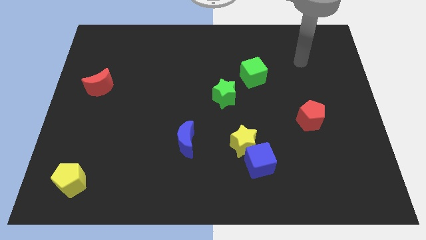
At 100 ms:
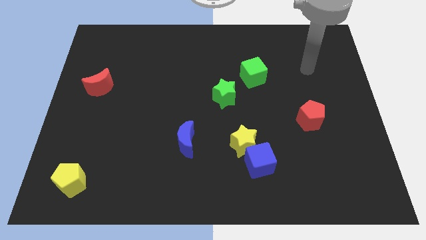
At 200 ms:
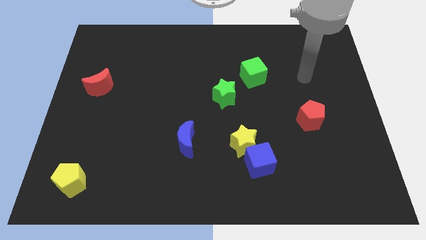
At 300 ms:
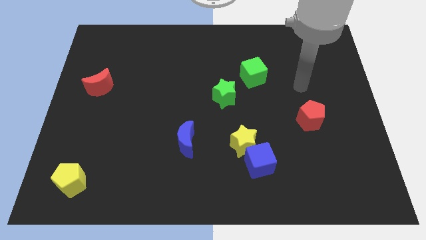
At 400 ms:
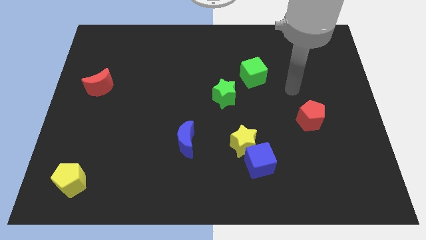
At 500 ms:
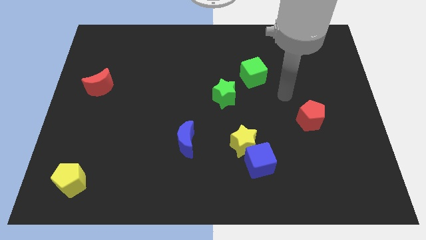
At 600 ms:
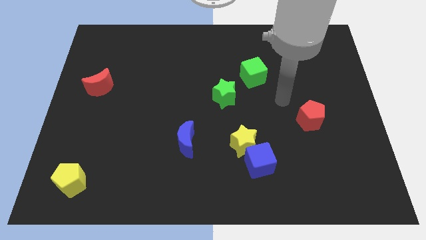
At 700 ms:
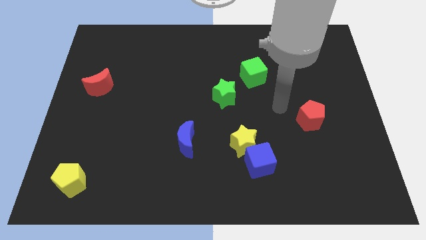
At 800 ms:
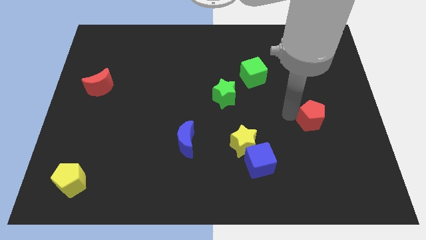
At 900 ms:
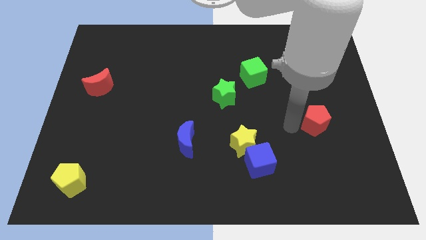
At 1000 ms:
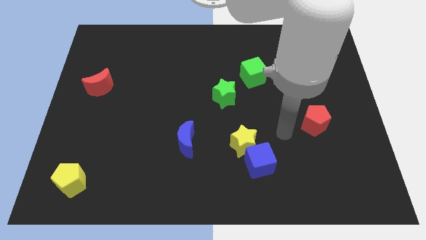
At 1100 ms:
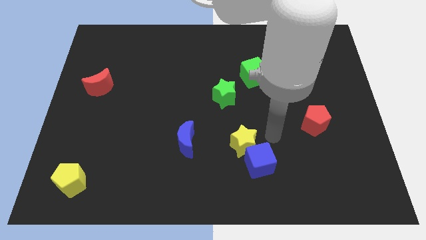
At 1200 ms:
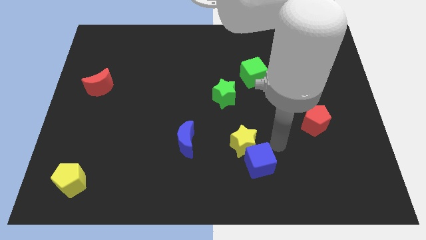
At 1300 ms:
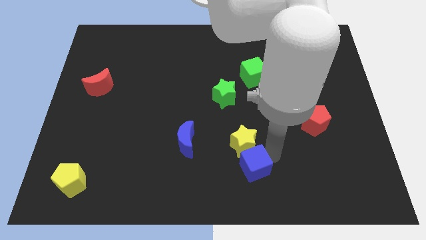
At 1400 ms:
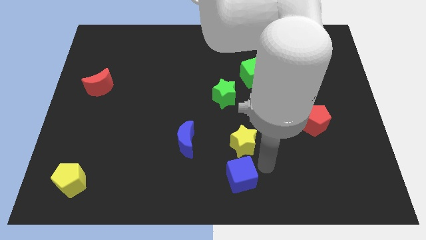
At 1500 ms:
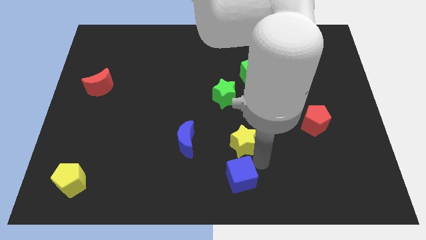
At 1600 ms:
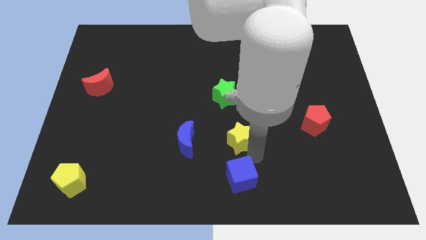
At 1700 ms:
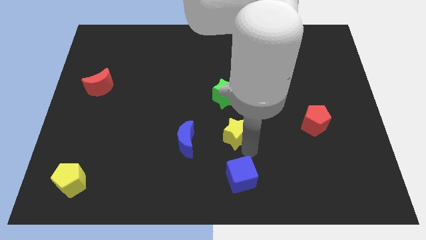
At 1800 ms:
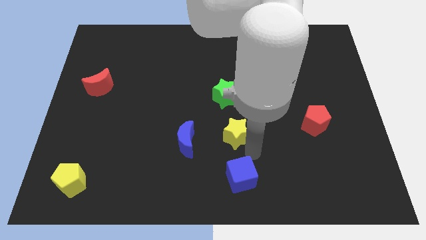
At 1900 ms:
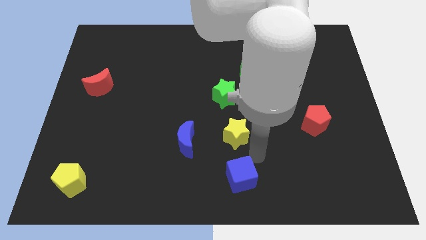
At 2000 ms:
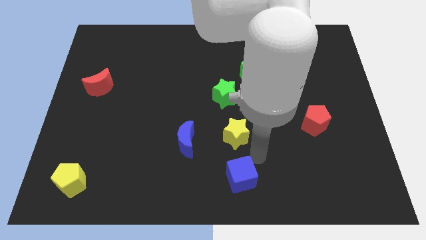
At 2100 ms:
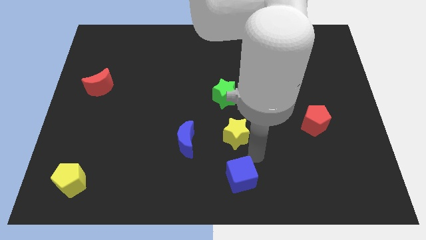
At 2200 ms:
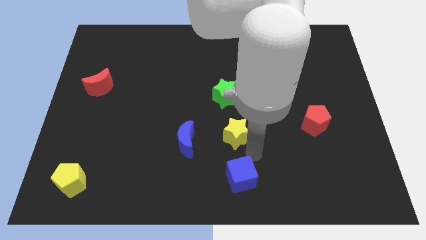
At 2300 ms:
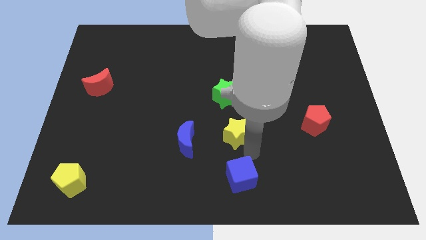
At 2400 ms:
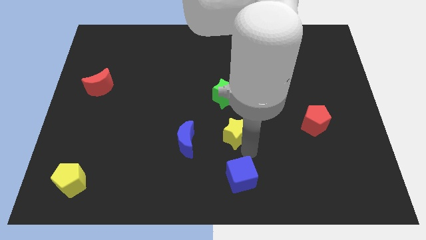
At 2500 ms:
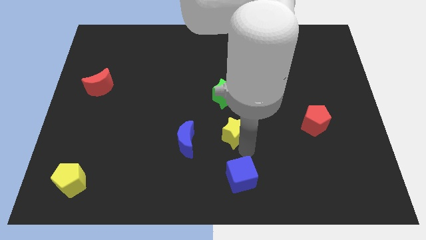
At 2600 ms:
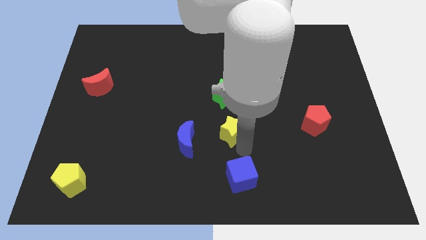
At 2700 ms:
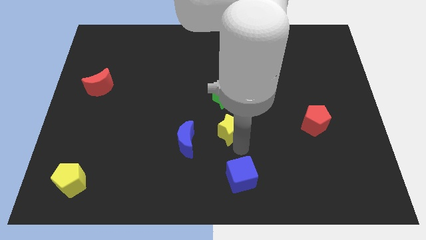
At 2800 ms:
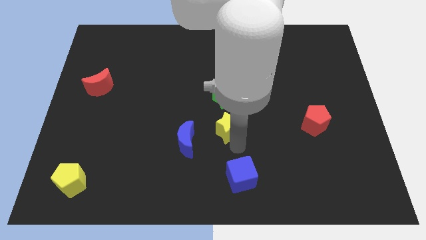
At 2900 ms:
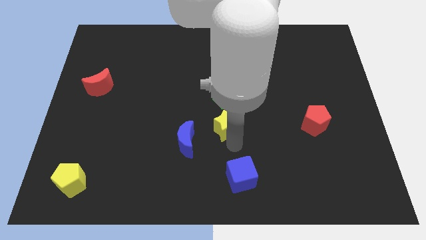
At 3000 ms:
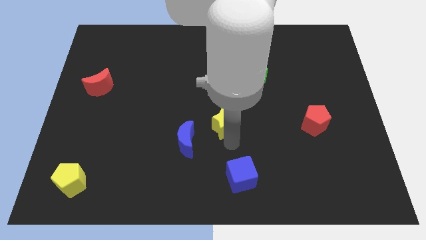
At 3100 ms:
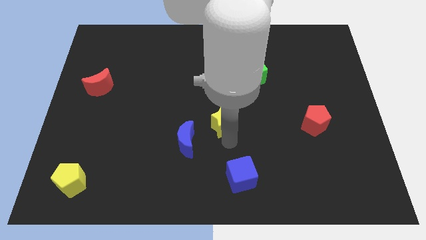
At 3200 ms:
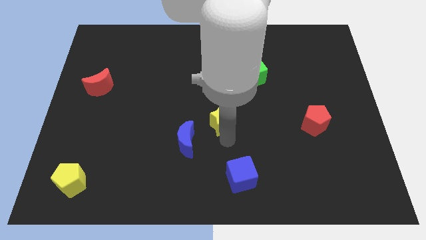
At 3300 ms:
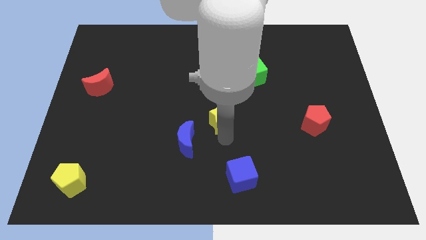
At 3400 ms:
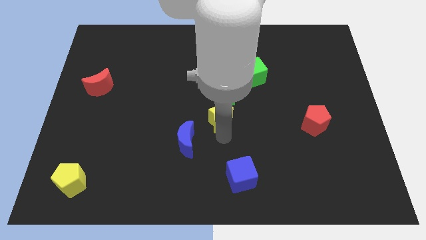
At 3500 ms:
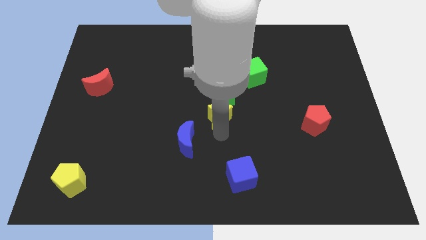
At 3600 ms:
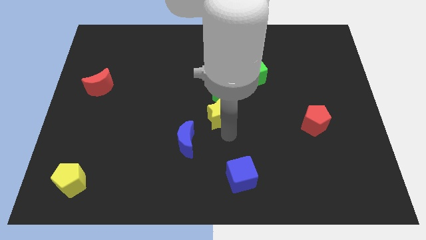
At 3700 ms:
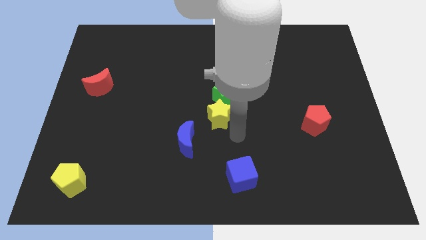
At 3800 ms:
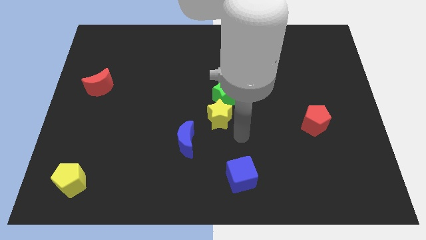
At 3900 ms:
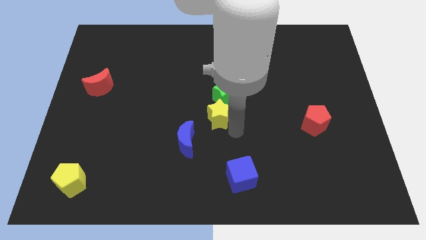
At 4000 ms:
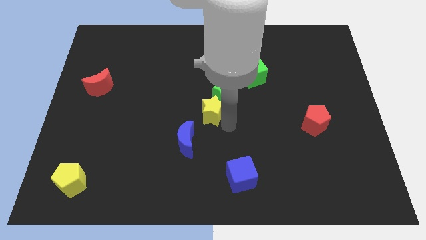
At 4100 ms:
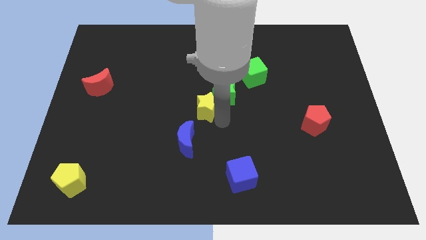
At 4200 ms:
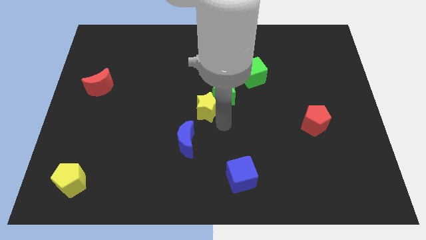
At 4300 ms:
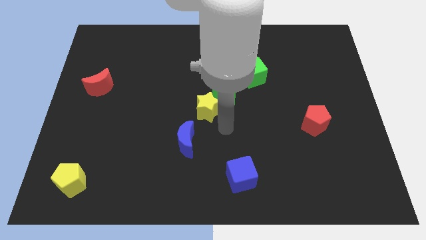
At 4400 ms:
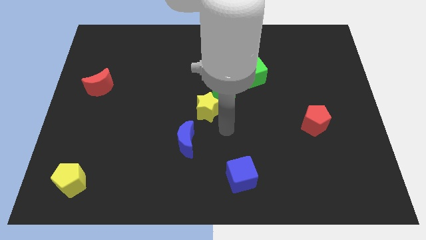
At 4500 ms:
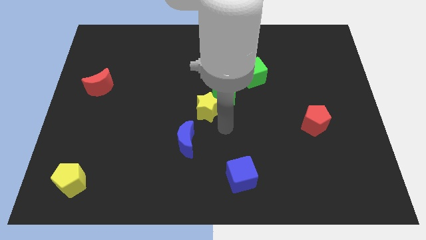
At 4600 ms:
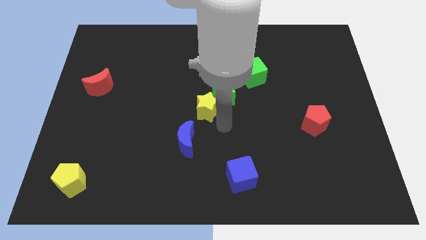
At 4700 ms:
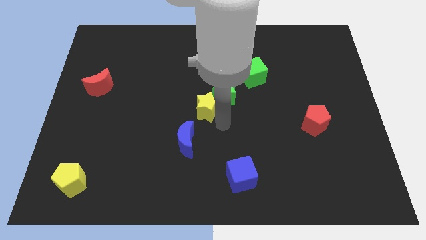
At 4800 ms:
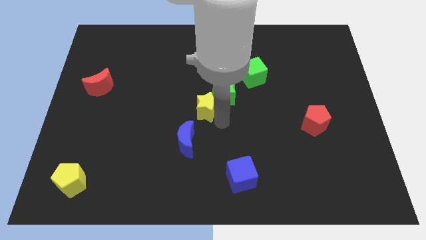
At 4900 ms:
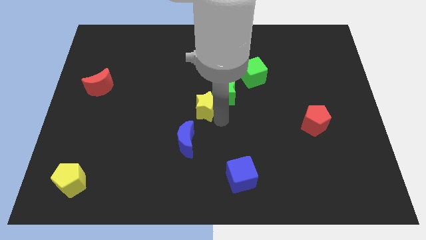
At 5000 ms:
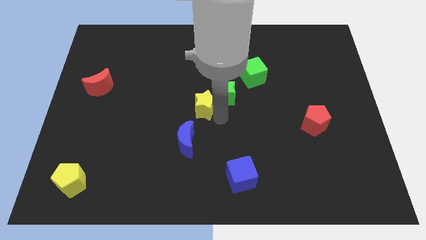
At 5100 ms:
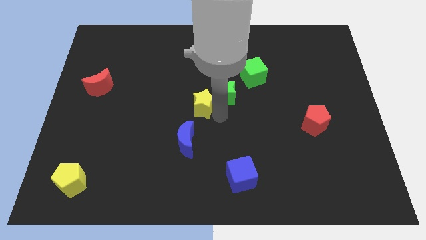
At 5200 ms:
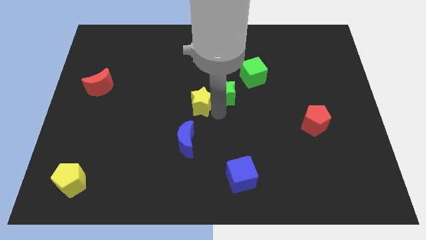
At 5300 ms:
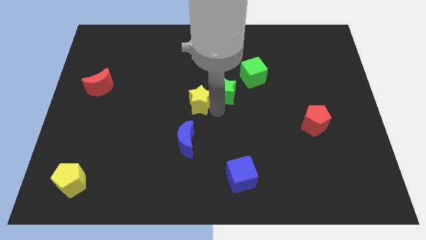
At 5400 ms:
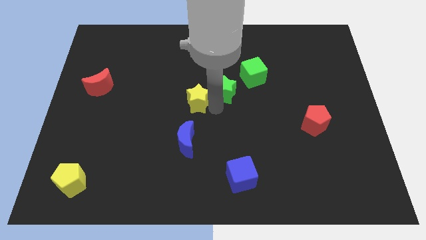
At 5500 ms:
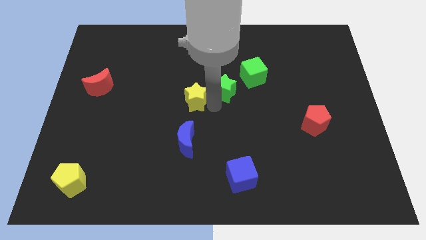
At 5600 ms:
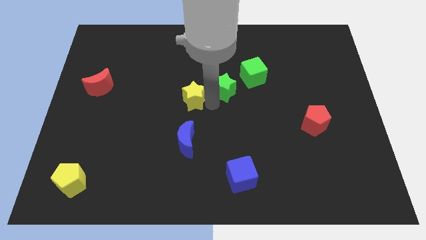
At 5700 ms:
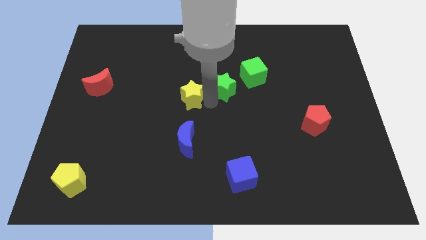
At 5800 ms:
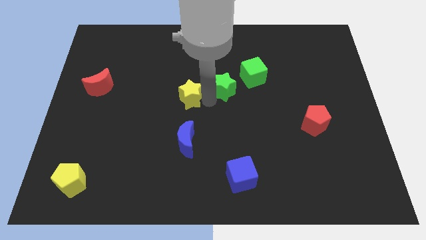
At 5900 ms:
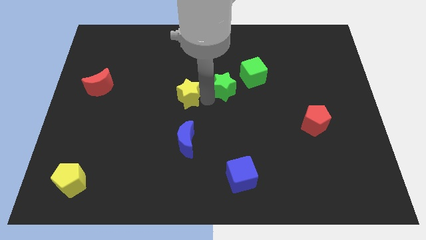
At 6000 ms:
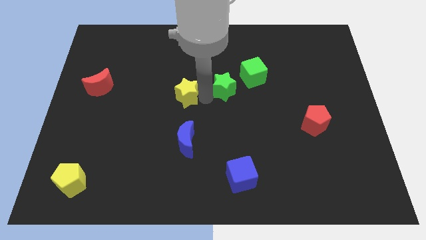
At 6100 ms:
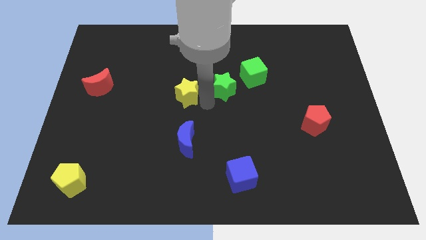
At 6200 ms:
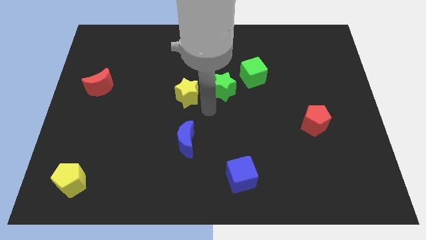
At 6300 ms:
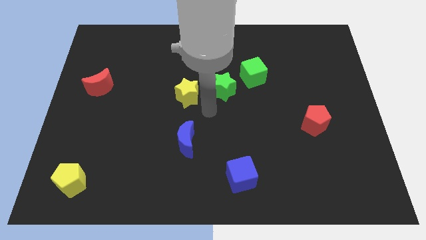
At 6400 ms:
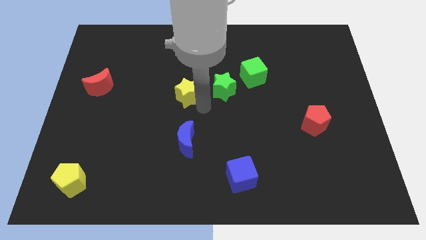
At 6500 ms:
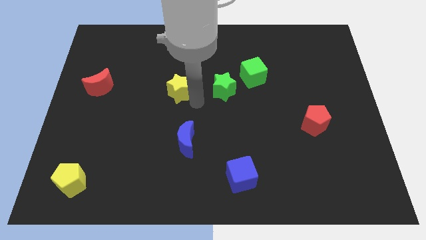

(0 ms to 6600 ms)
move the yellow star upwards and to the left diagonally

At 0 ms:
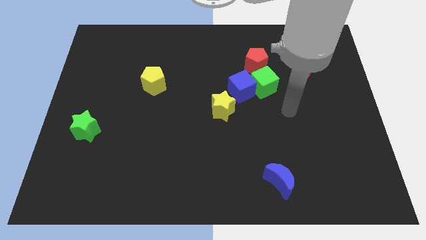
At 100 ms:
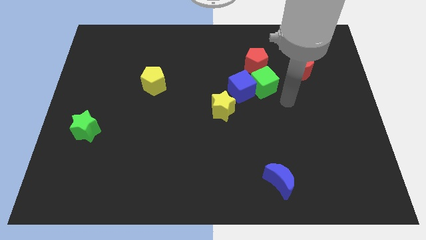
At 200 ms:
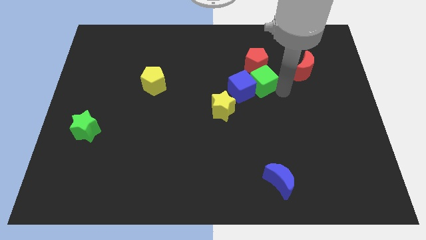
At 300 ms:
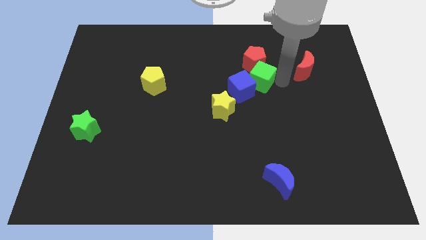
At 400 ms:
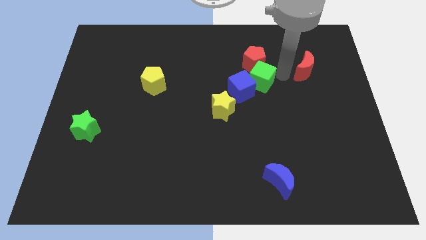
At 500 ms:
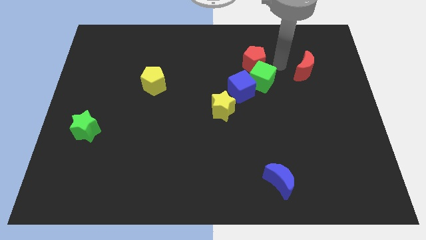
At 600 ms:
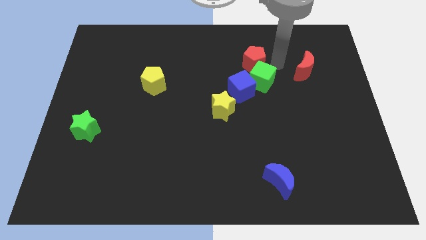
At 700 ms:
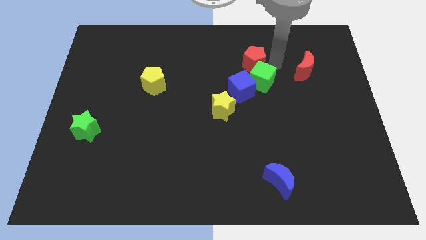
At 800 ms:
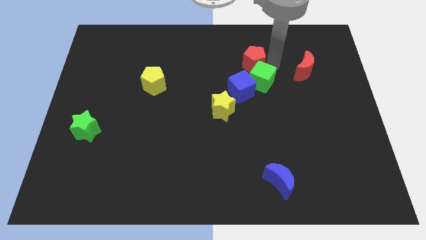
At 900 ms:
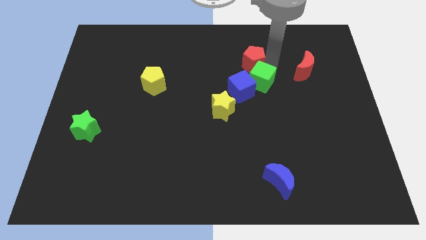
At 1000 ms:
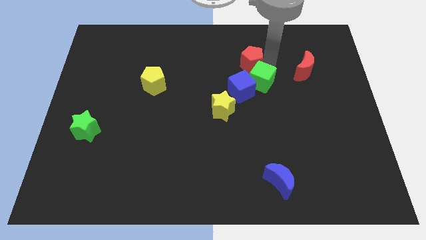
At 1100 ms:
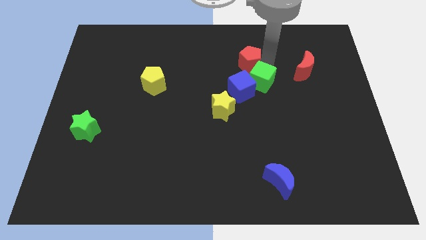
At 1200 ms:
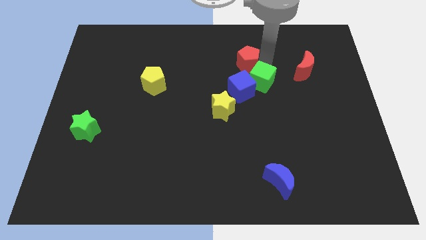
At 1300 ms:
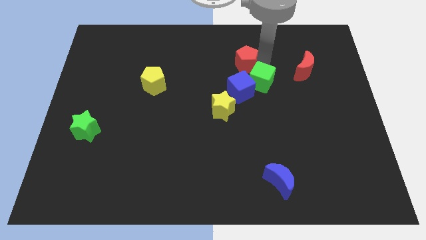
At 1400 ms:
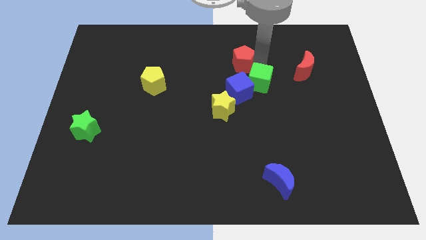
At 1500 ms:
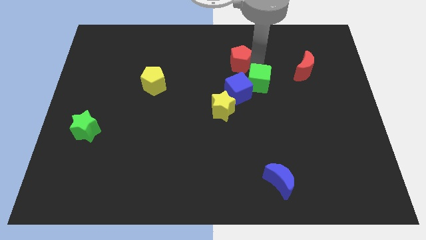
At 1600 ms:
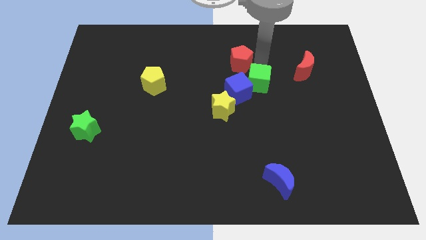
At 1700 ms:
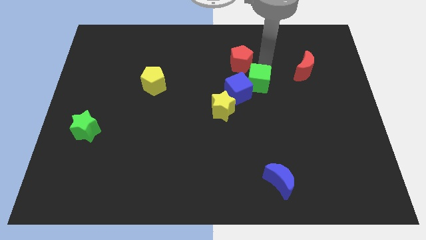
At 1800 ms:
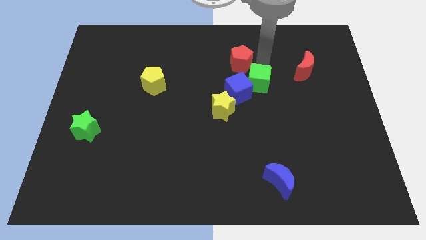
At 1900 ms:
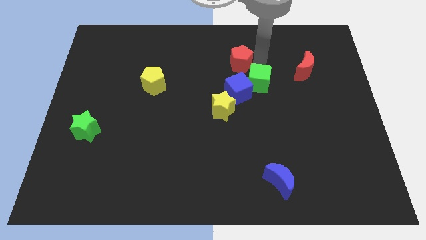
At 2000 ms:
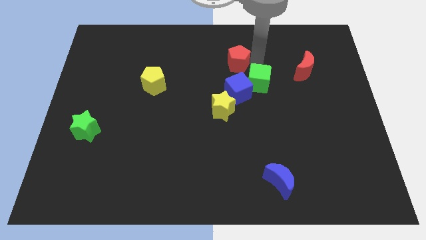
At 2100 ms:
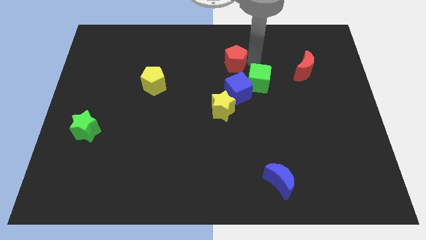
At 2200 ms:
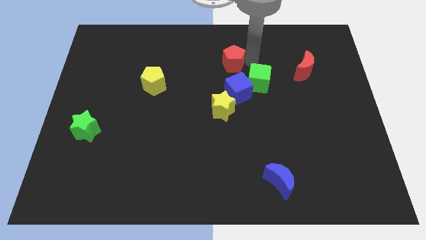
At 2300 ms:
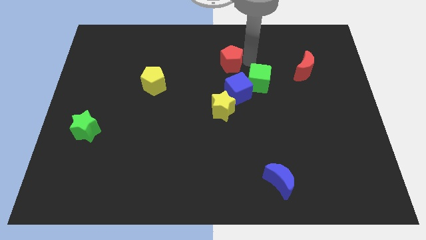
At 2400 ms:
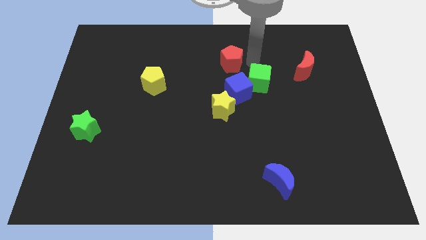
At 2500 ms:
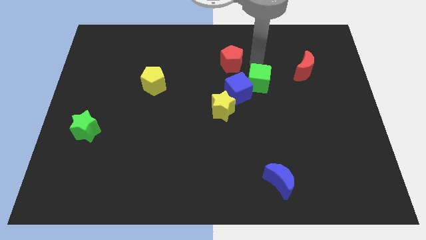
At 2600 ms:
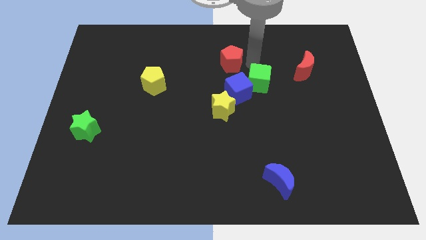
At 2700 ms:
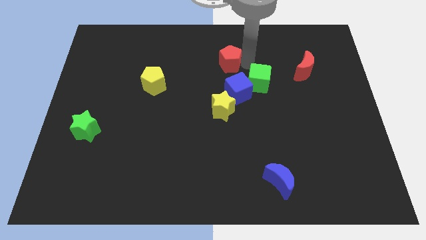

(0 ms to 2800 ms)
move the red pentagon a little bit left
